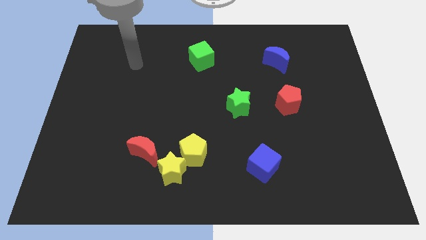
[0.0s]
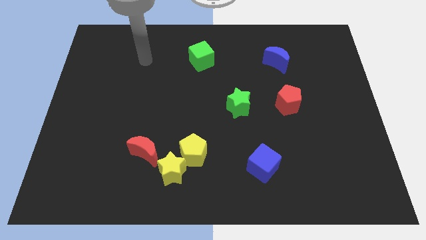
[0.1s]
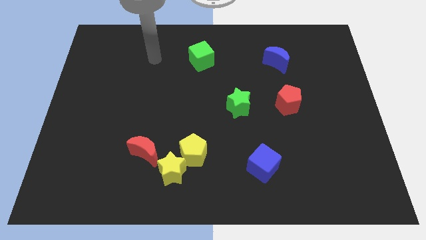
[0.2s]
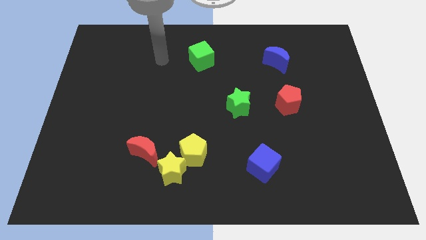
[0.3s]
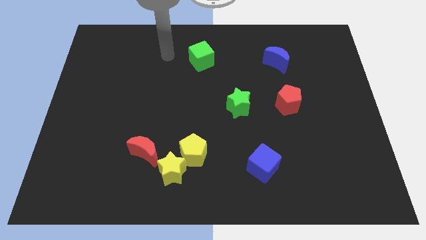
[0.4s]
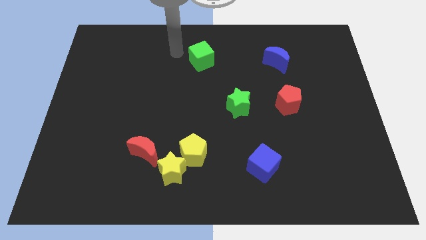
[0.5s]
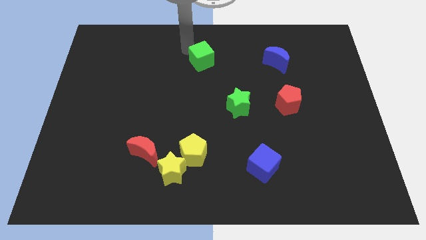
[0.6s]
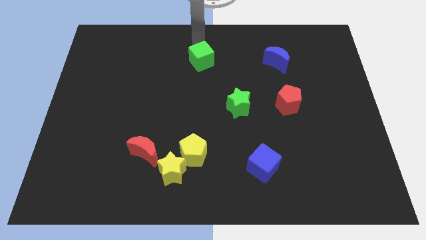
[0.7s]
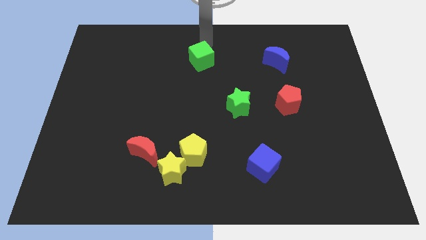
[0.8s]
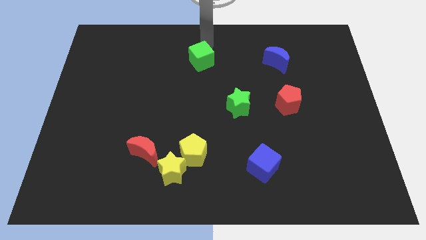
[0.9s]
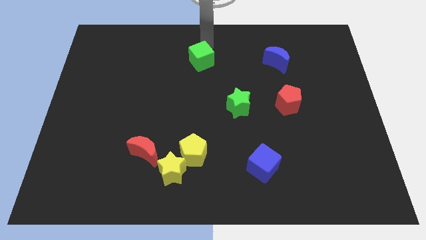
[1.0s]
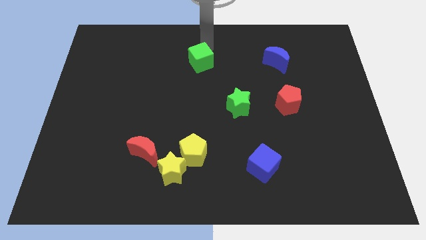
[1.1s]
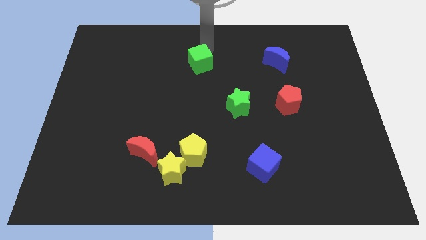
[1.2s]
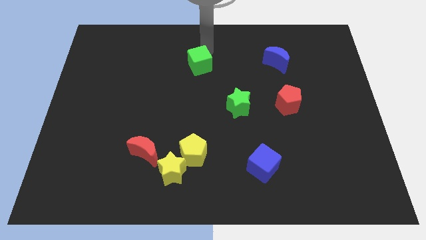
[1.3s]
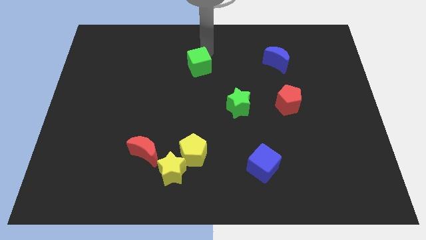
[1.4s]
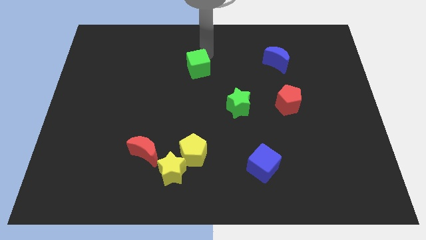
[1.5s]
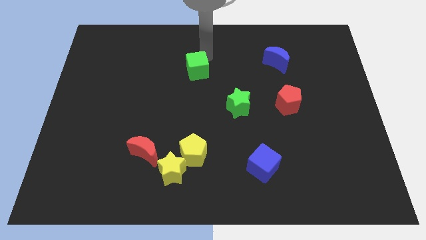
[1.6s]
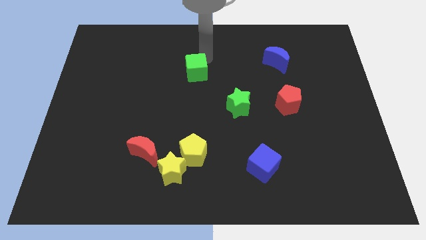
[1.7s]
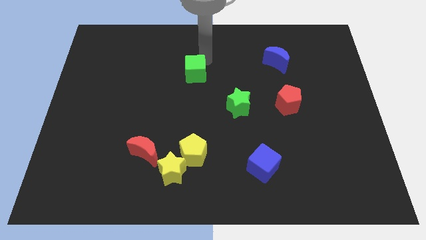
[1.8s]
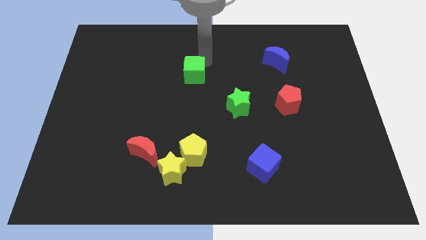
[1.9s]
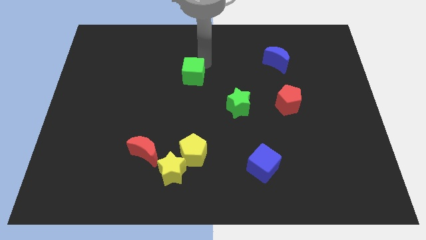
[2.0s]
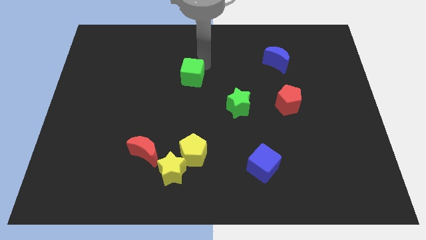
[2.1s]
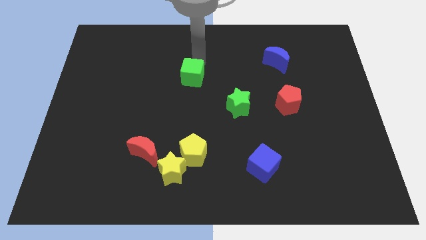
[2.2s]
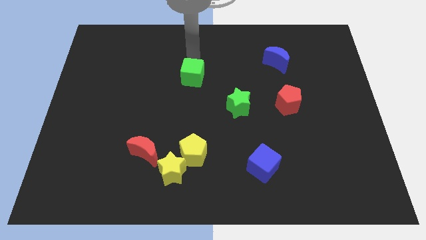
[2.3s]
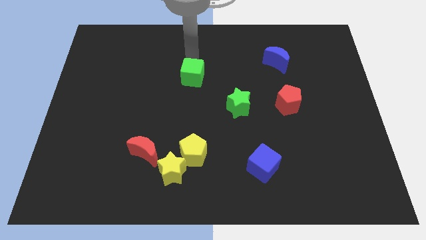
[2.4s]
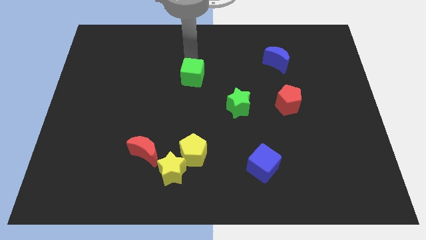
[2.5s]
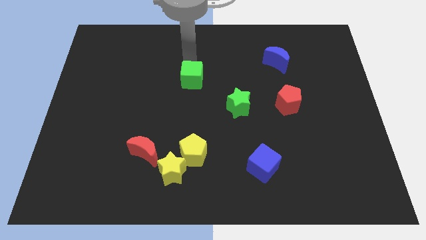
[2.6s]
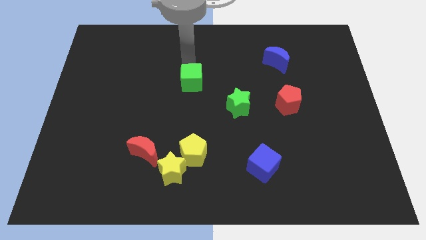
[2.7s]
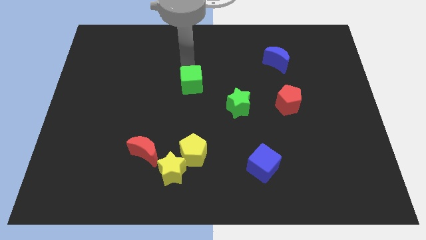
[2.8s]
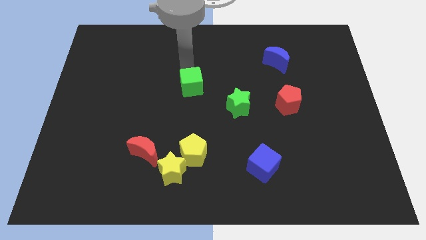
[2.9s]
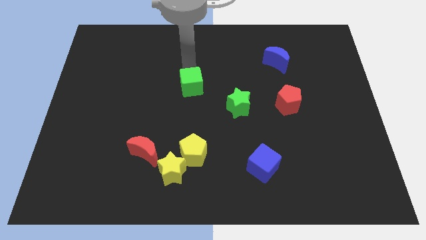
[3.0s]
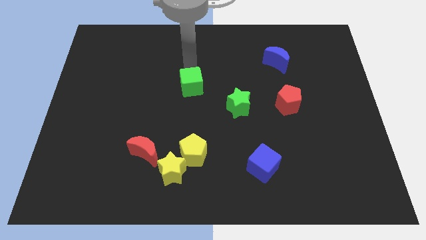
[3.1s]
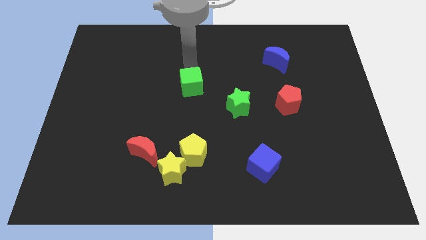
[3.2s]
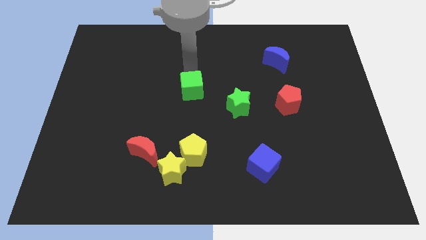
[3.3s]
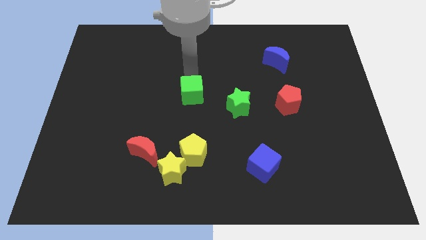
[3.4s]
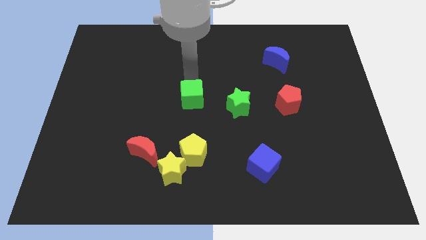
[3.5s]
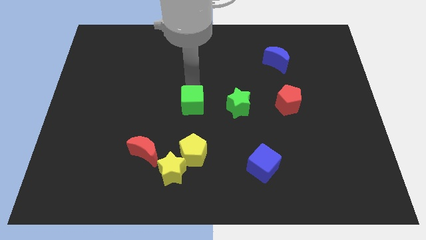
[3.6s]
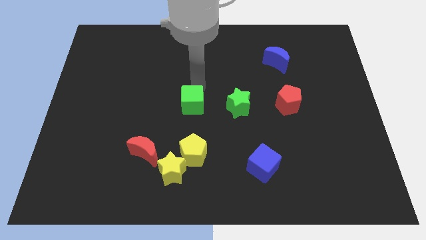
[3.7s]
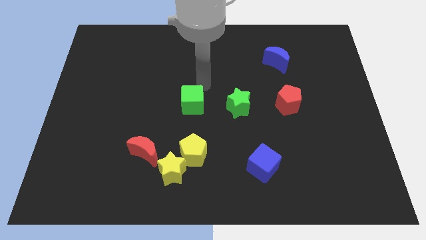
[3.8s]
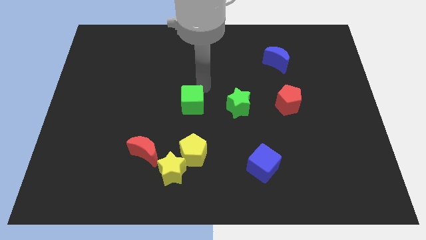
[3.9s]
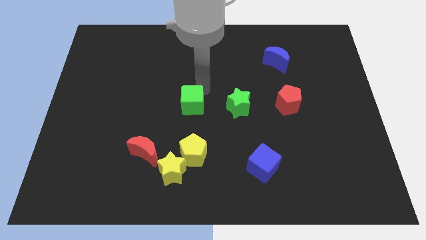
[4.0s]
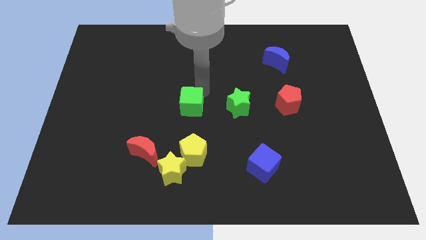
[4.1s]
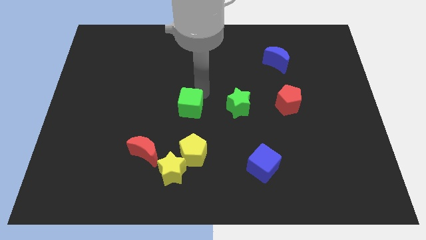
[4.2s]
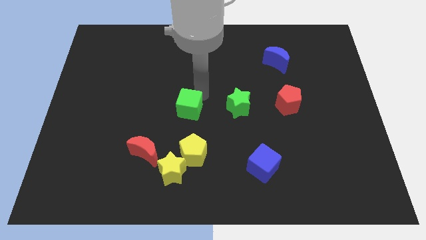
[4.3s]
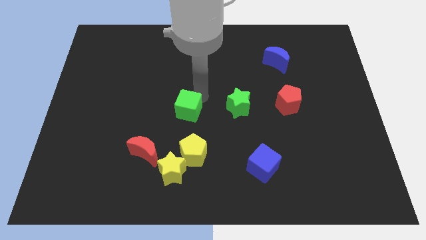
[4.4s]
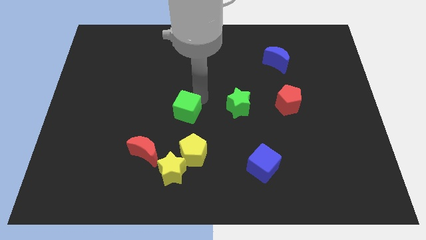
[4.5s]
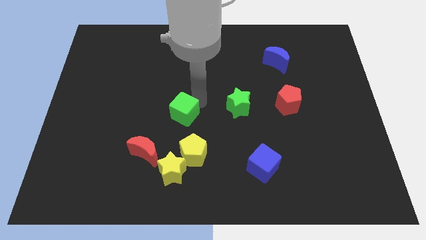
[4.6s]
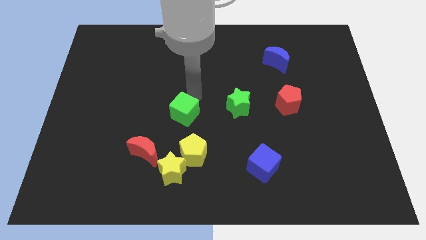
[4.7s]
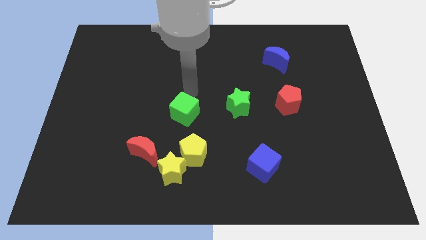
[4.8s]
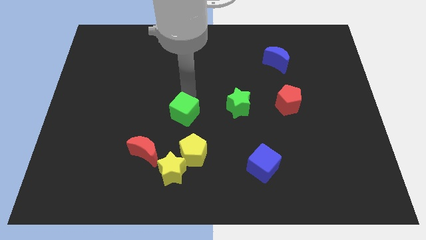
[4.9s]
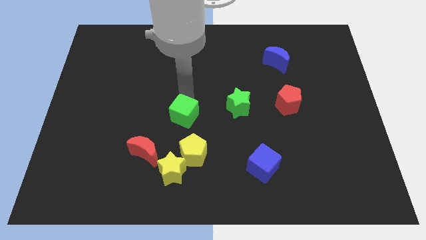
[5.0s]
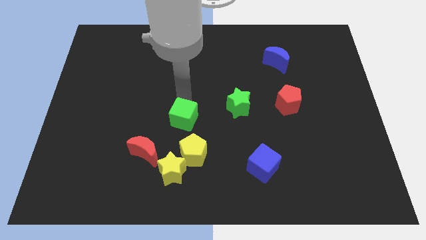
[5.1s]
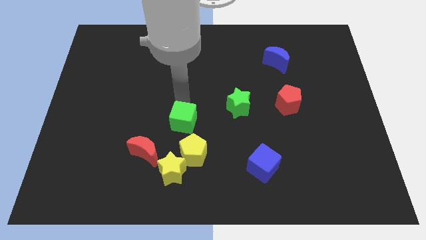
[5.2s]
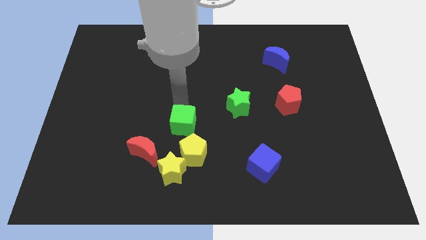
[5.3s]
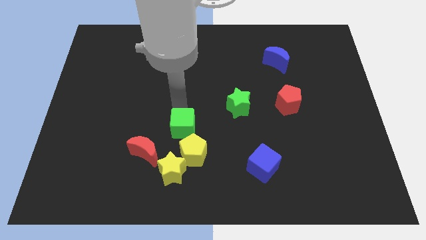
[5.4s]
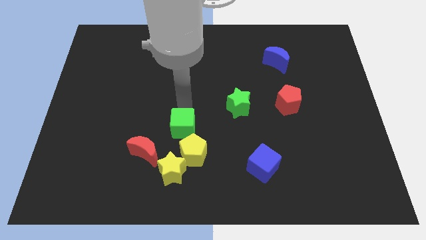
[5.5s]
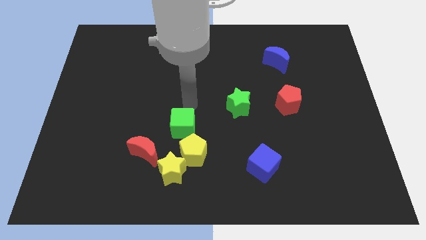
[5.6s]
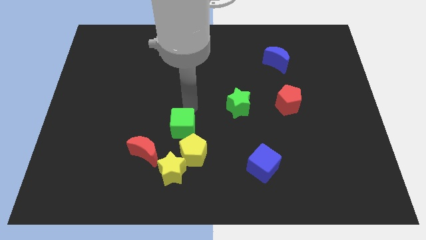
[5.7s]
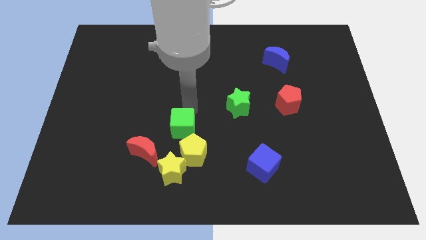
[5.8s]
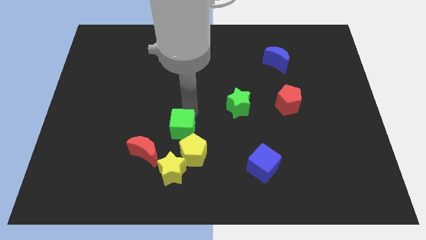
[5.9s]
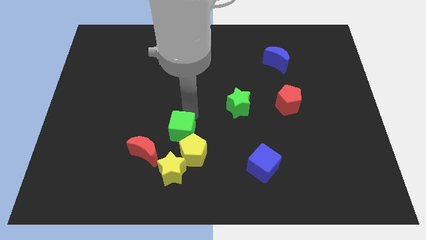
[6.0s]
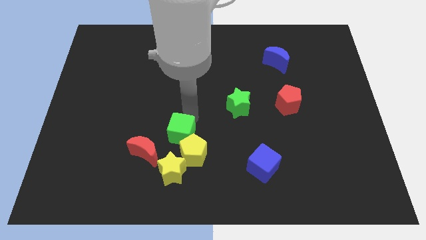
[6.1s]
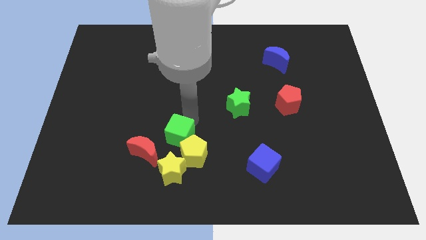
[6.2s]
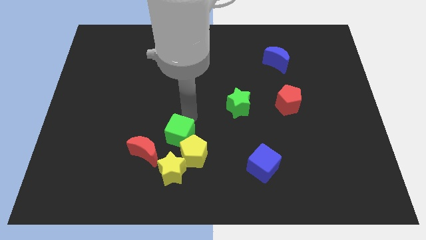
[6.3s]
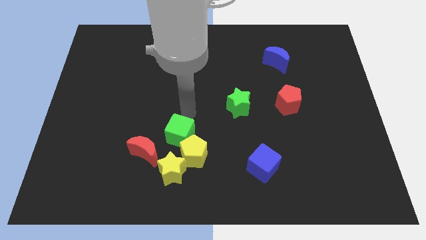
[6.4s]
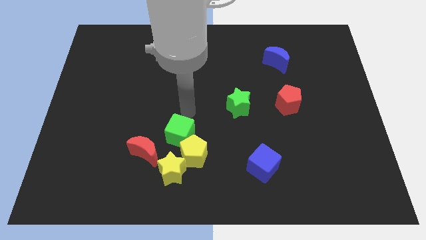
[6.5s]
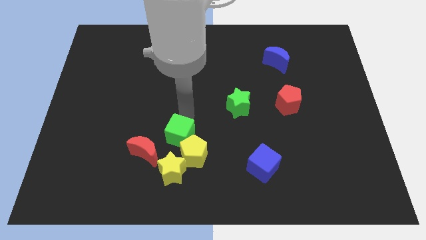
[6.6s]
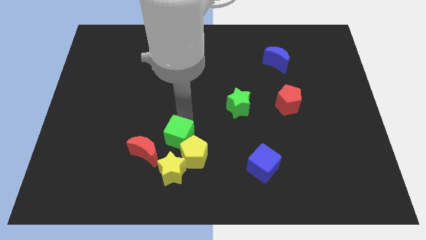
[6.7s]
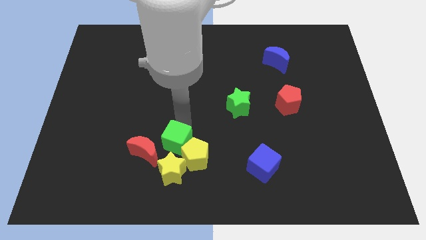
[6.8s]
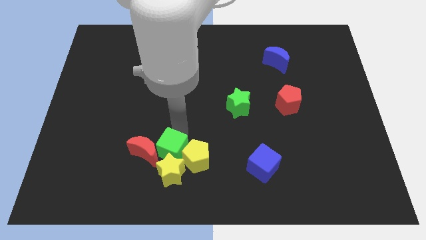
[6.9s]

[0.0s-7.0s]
push the green cube next to the yellow star

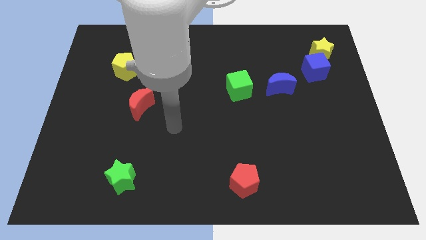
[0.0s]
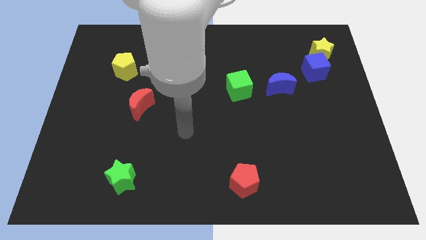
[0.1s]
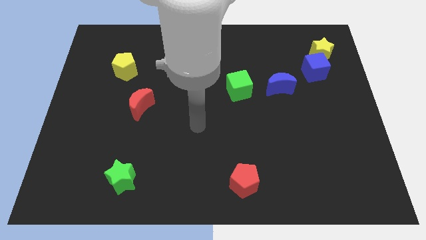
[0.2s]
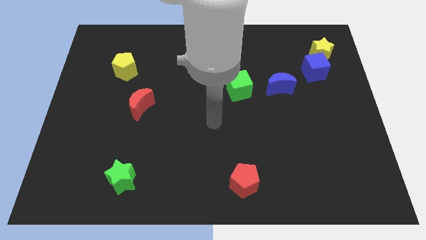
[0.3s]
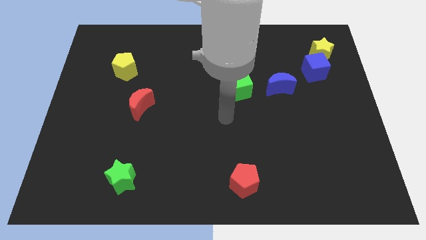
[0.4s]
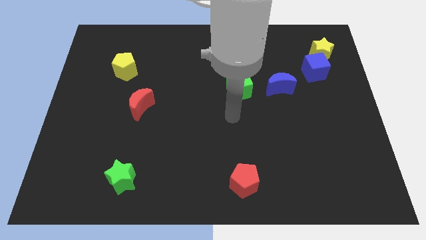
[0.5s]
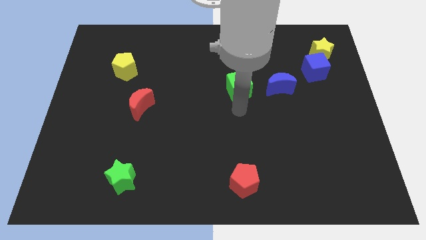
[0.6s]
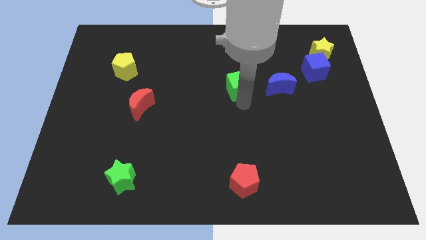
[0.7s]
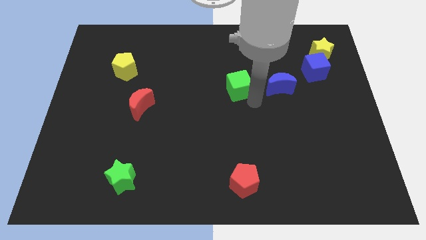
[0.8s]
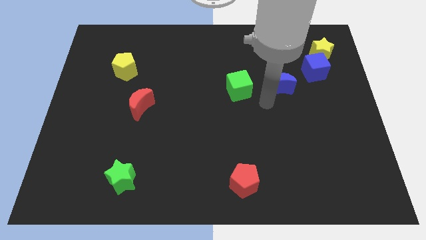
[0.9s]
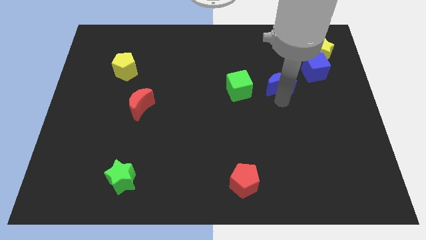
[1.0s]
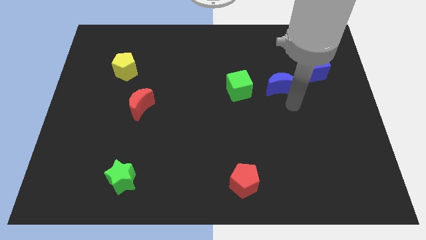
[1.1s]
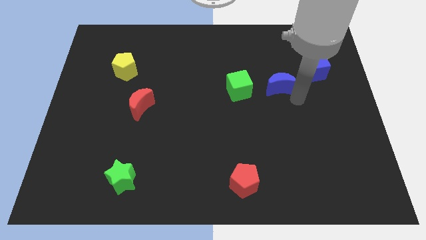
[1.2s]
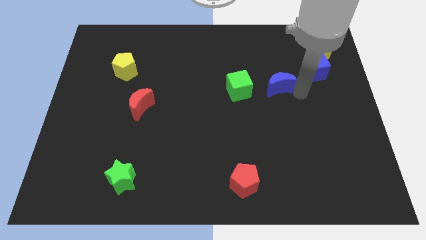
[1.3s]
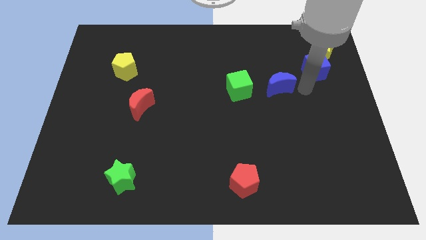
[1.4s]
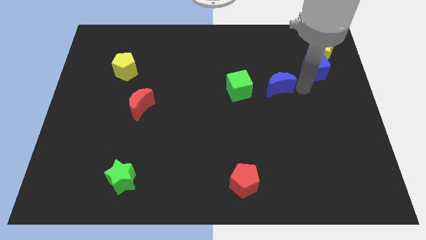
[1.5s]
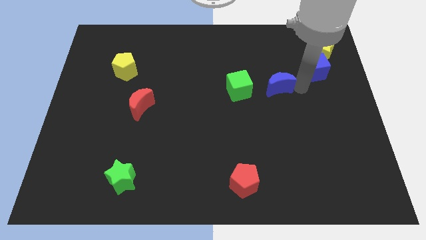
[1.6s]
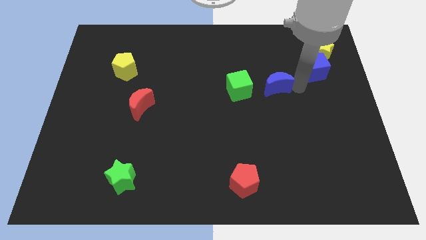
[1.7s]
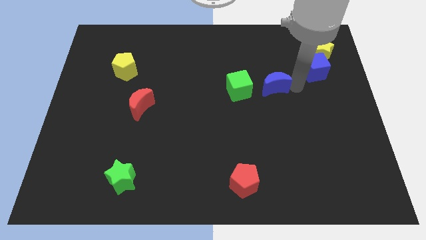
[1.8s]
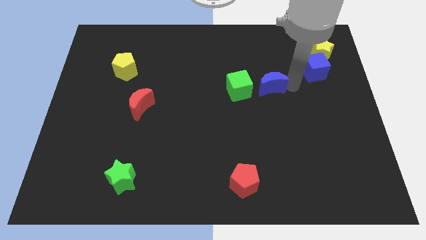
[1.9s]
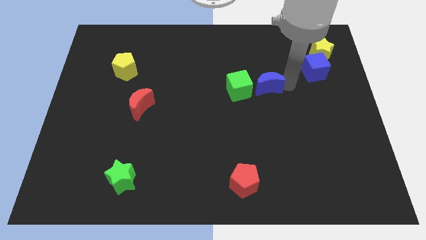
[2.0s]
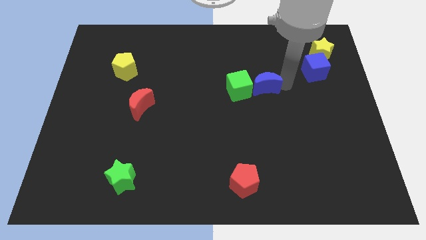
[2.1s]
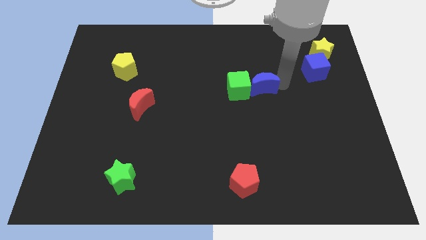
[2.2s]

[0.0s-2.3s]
move the blue moon towards the green cube
